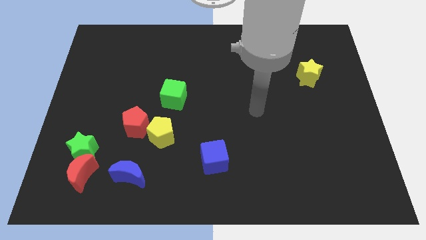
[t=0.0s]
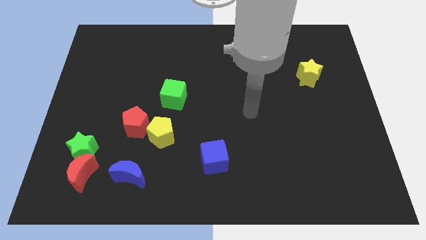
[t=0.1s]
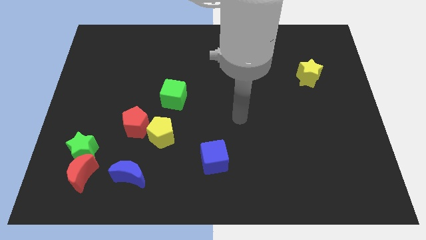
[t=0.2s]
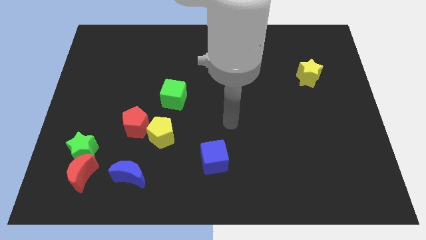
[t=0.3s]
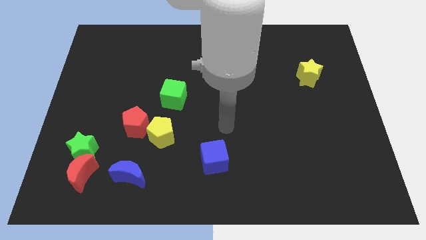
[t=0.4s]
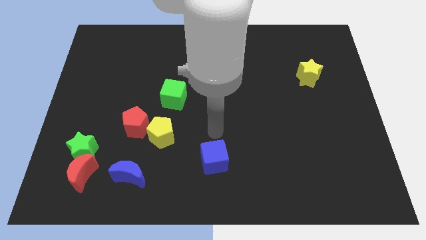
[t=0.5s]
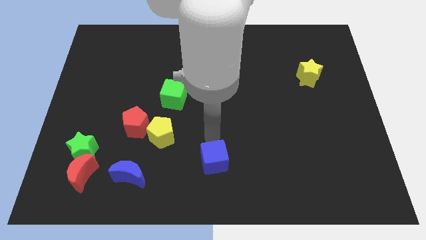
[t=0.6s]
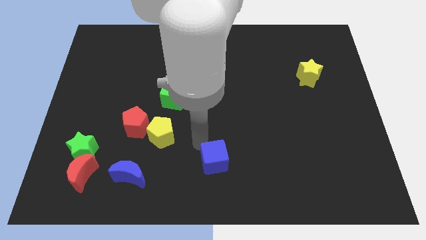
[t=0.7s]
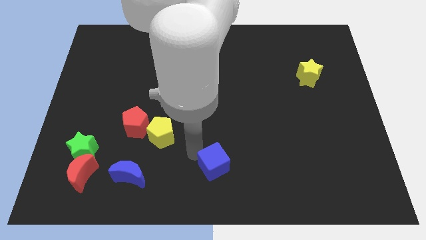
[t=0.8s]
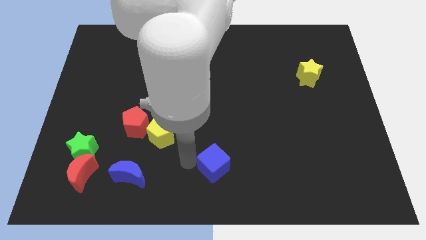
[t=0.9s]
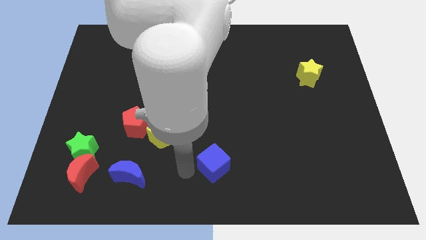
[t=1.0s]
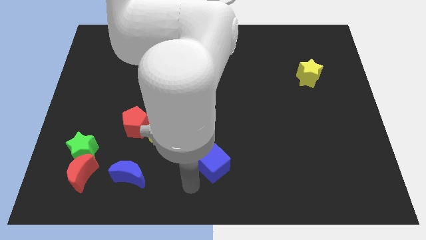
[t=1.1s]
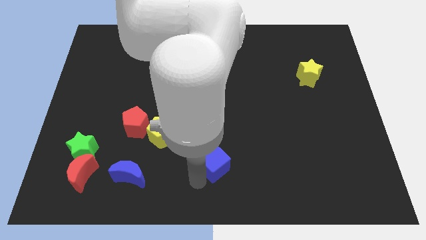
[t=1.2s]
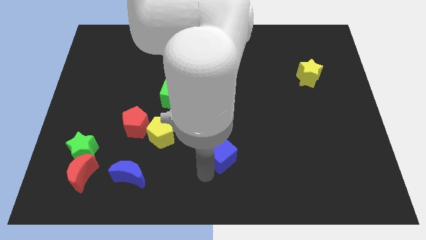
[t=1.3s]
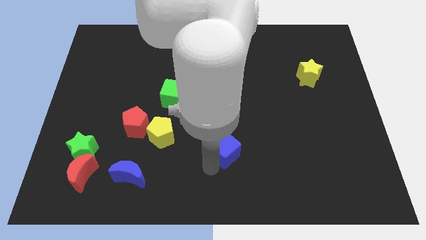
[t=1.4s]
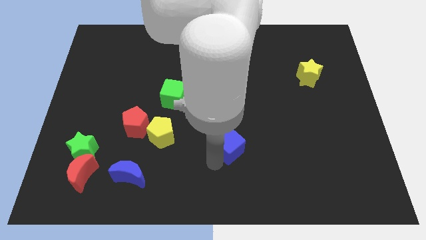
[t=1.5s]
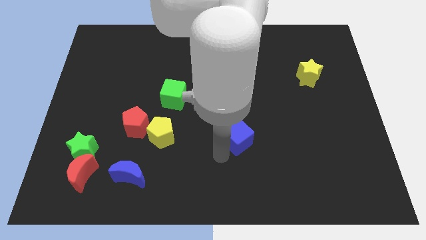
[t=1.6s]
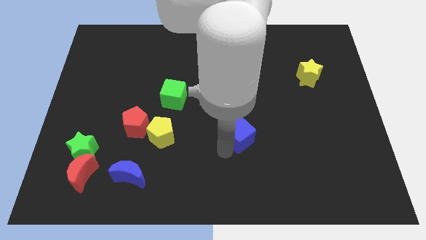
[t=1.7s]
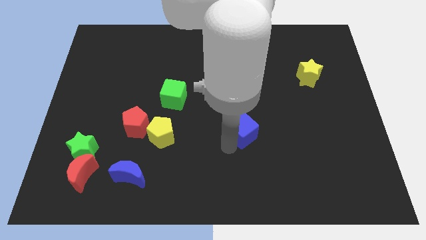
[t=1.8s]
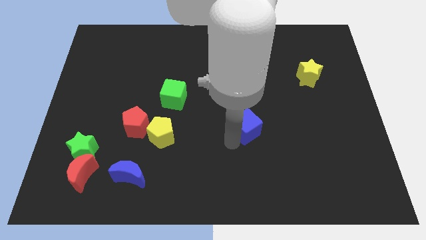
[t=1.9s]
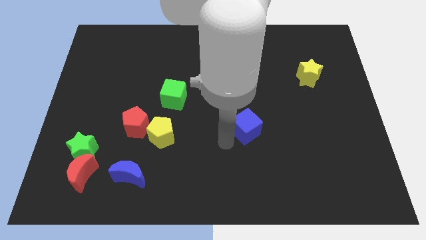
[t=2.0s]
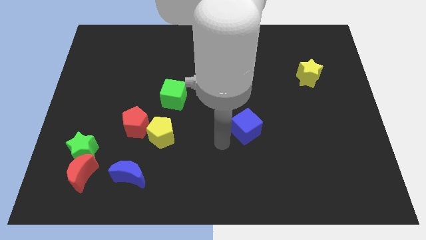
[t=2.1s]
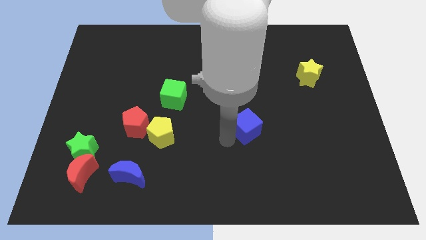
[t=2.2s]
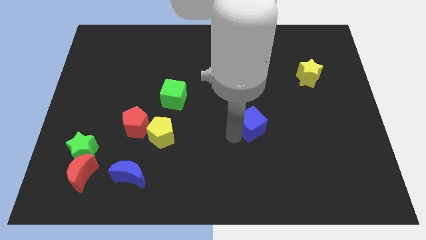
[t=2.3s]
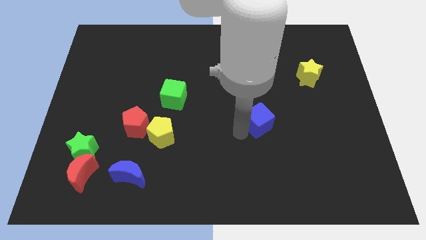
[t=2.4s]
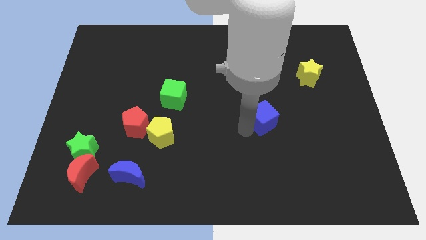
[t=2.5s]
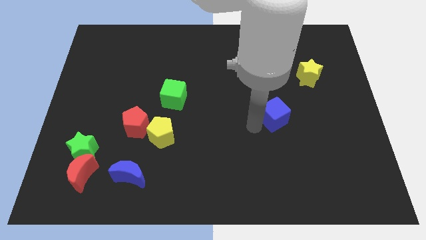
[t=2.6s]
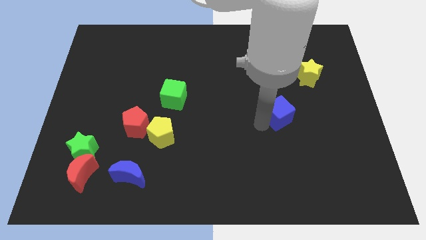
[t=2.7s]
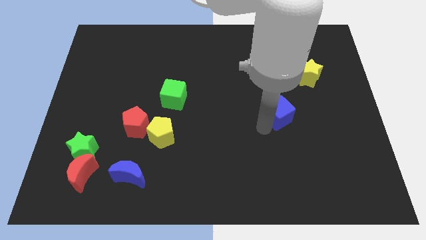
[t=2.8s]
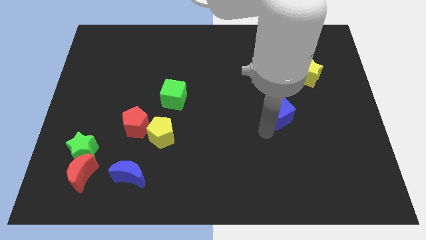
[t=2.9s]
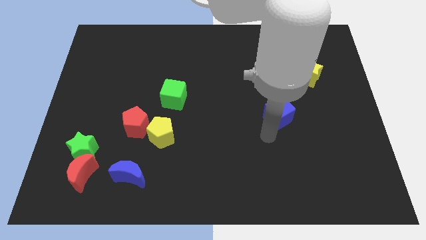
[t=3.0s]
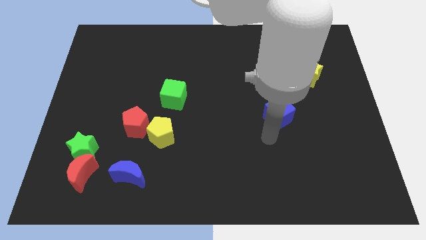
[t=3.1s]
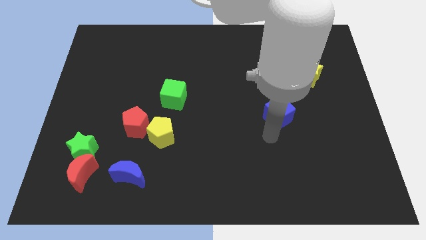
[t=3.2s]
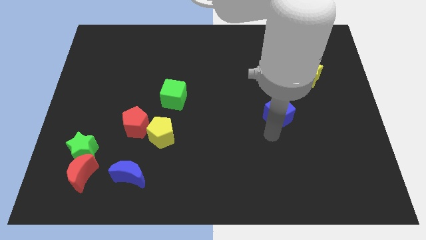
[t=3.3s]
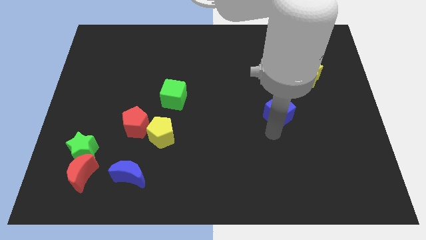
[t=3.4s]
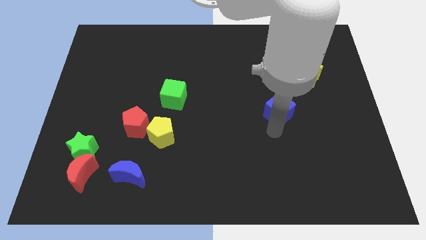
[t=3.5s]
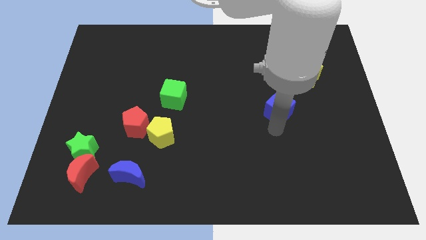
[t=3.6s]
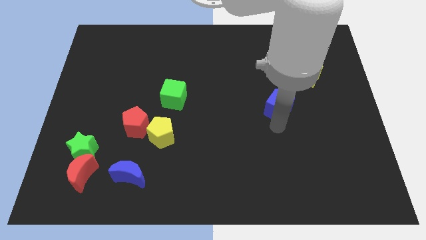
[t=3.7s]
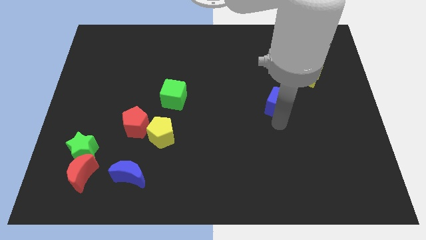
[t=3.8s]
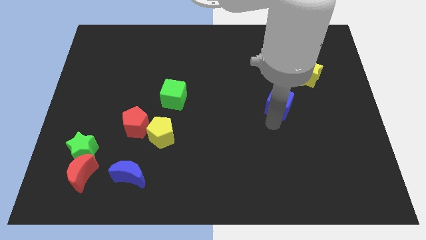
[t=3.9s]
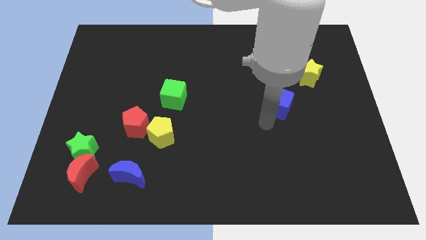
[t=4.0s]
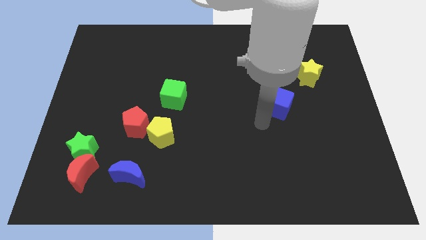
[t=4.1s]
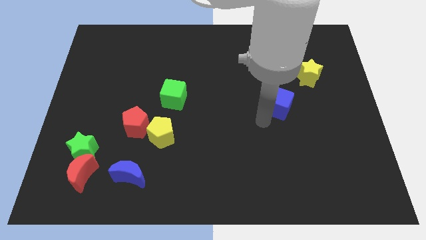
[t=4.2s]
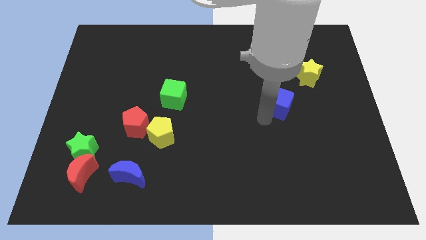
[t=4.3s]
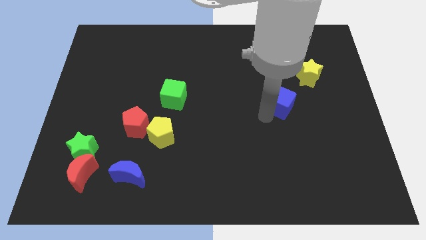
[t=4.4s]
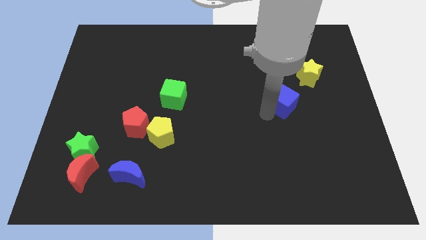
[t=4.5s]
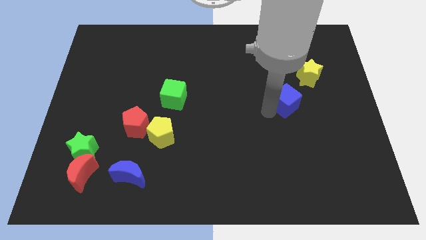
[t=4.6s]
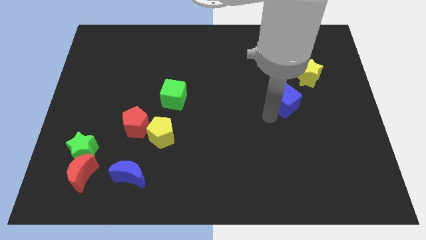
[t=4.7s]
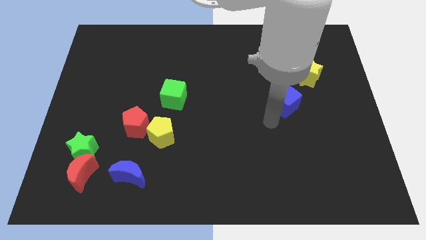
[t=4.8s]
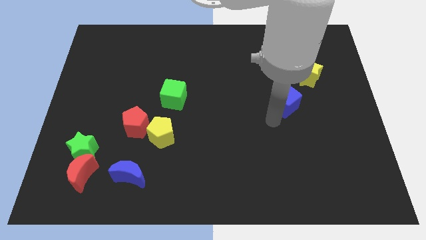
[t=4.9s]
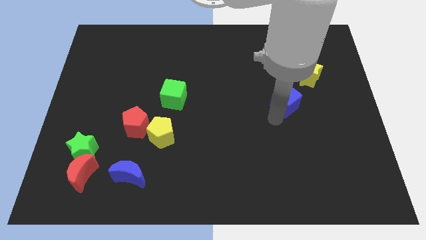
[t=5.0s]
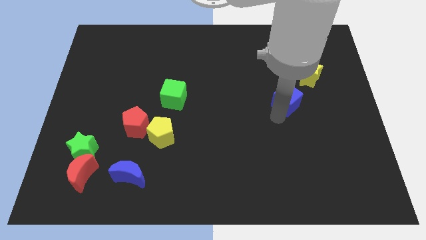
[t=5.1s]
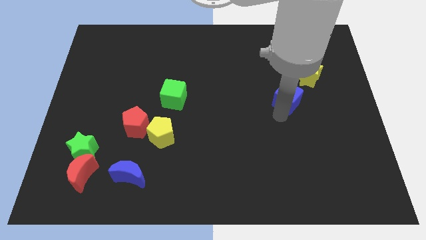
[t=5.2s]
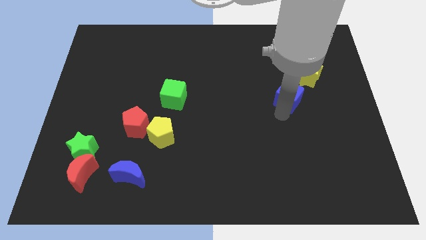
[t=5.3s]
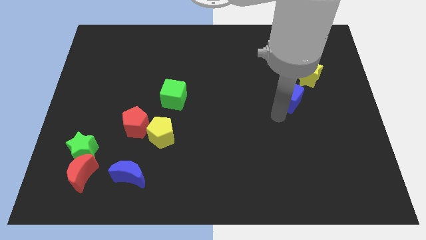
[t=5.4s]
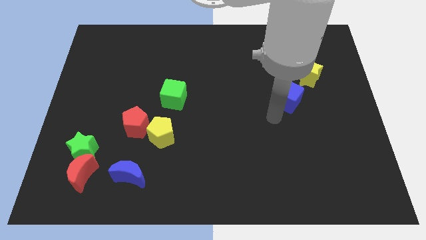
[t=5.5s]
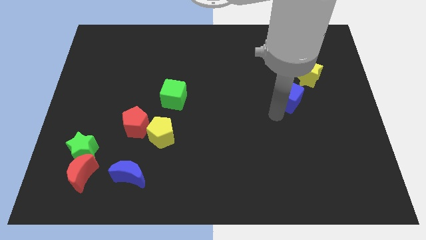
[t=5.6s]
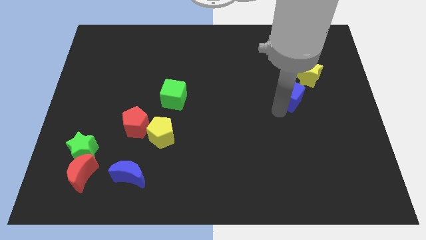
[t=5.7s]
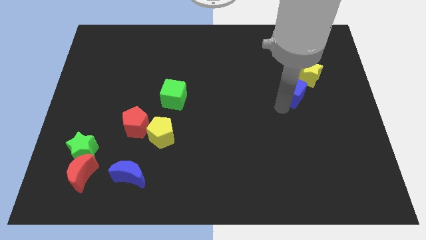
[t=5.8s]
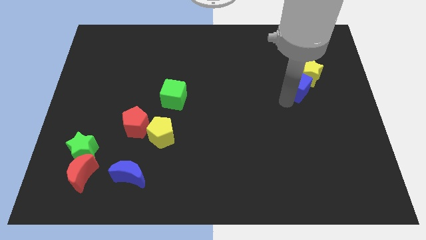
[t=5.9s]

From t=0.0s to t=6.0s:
move the blue cube next to the yellow star

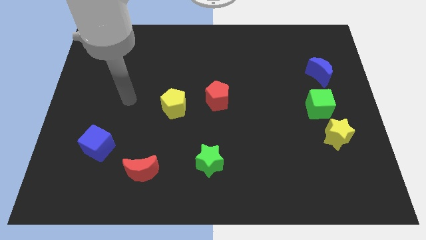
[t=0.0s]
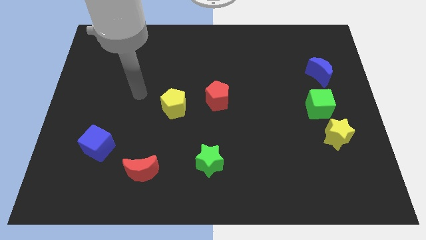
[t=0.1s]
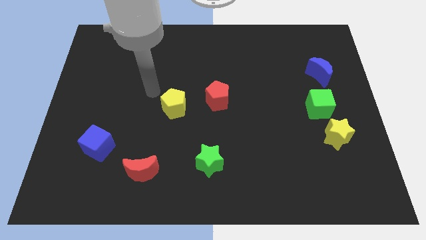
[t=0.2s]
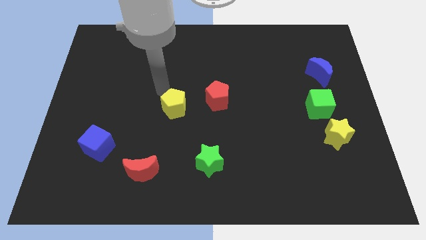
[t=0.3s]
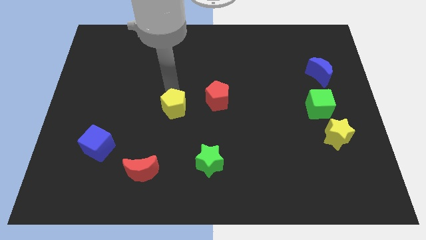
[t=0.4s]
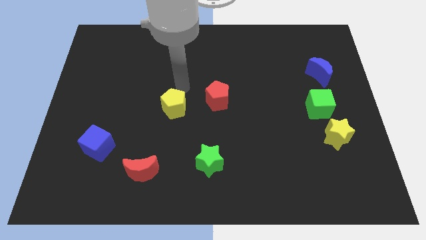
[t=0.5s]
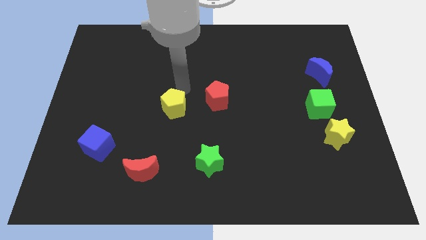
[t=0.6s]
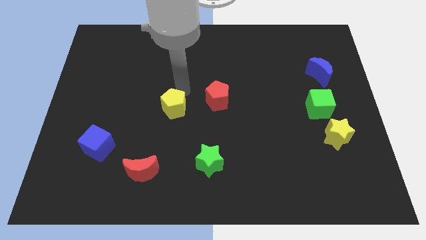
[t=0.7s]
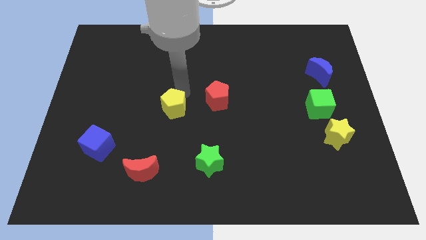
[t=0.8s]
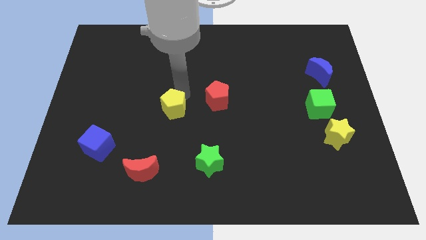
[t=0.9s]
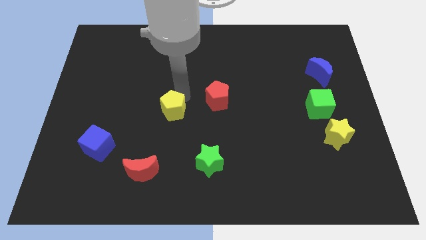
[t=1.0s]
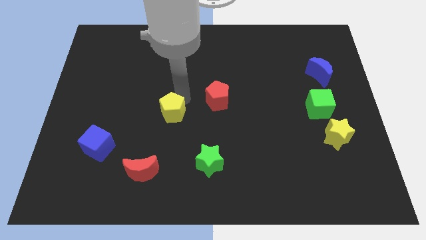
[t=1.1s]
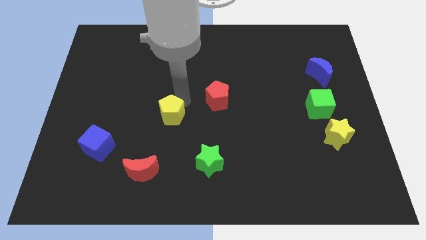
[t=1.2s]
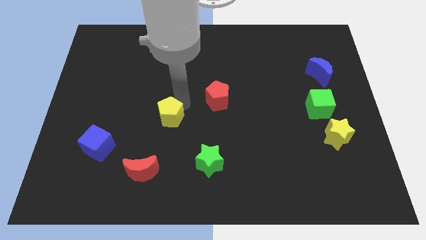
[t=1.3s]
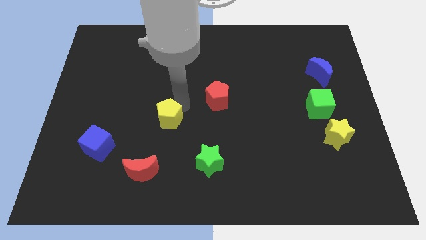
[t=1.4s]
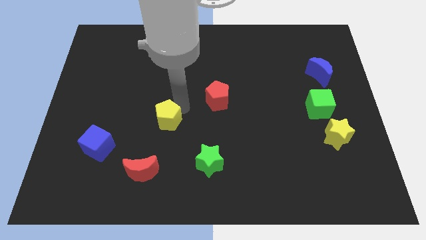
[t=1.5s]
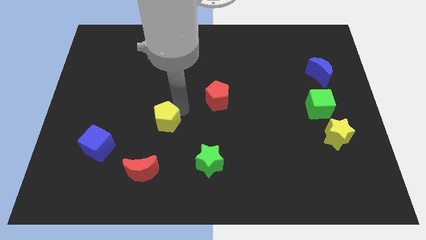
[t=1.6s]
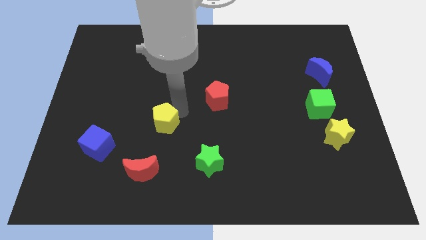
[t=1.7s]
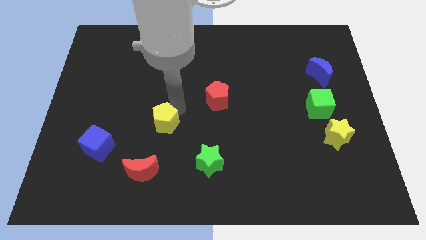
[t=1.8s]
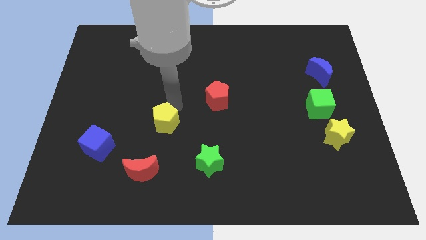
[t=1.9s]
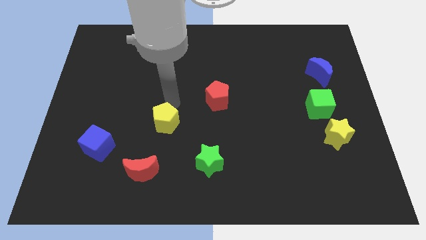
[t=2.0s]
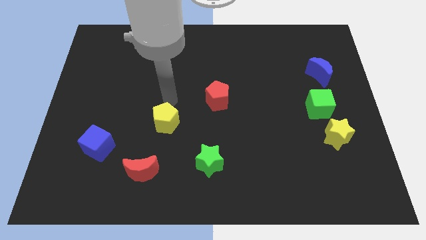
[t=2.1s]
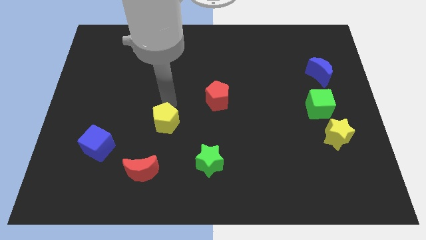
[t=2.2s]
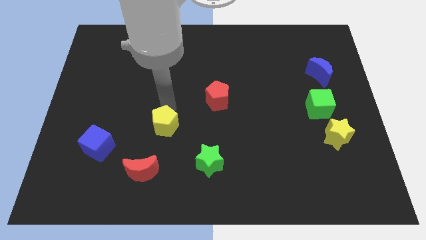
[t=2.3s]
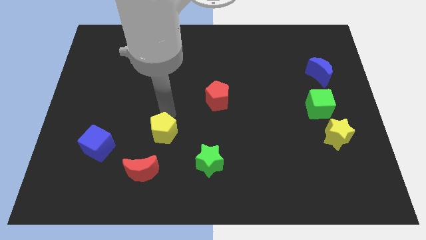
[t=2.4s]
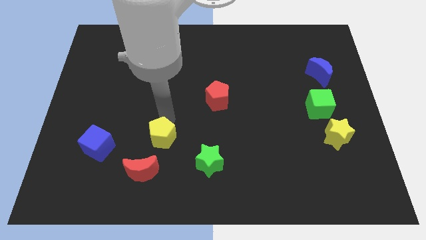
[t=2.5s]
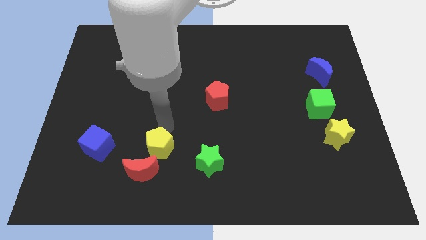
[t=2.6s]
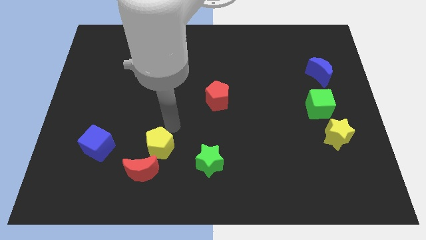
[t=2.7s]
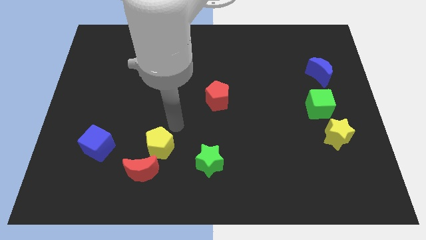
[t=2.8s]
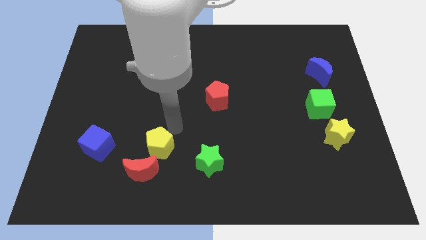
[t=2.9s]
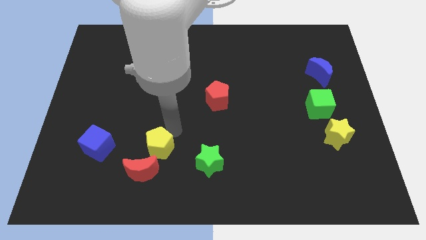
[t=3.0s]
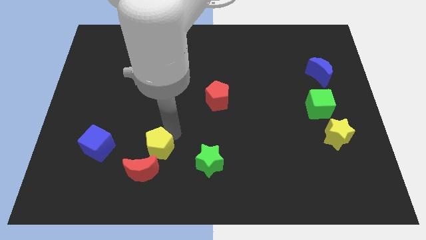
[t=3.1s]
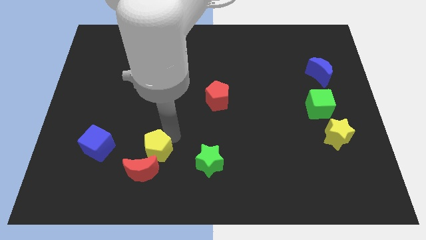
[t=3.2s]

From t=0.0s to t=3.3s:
move the yellow pentagon close to the red moon
